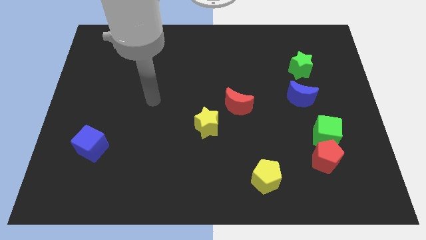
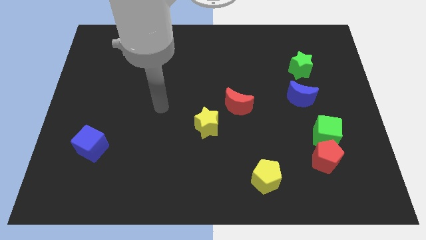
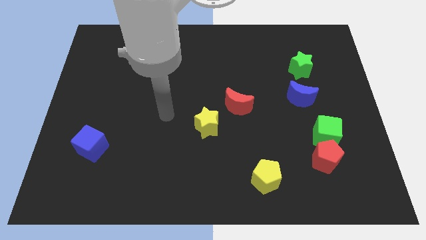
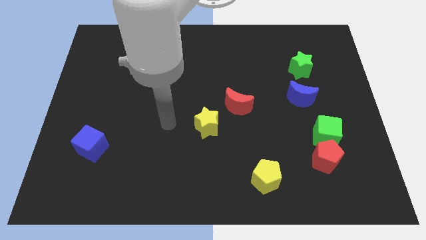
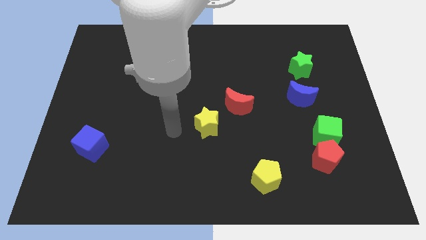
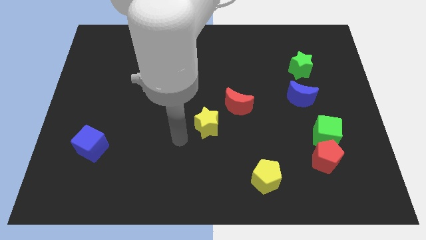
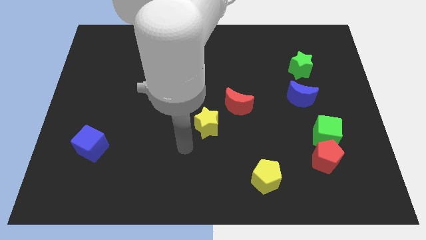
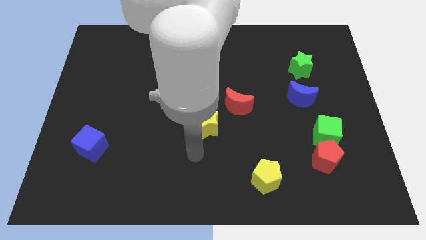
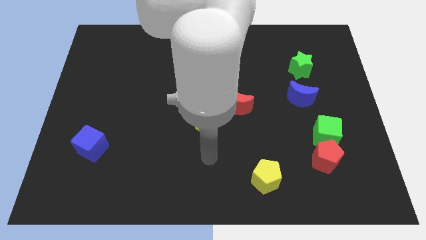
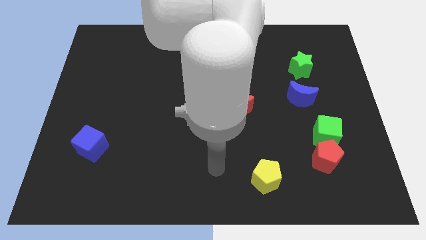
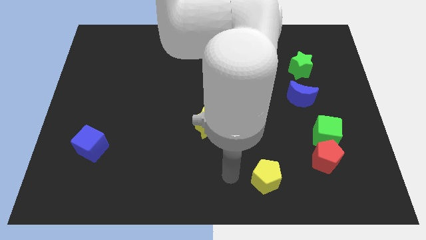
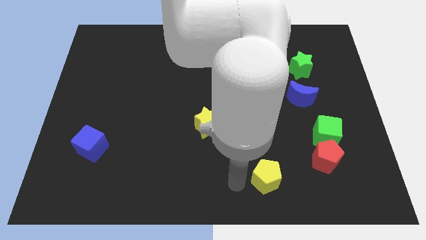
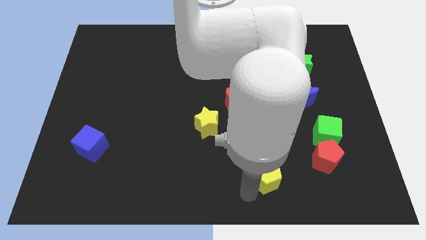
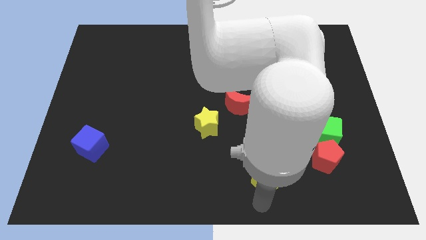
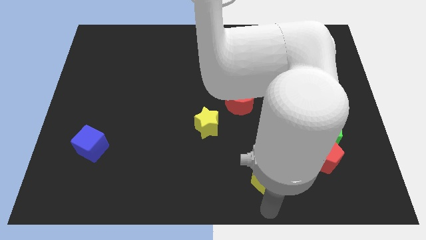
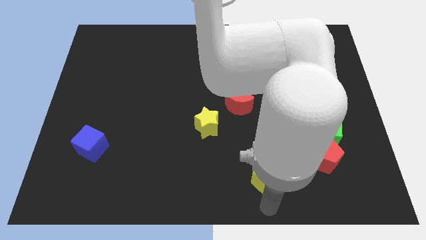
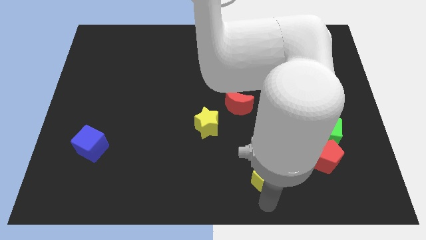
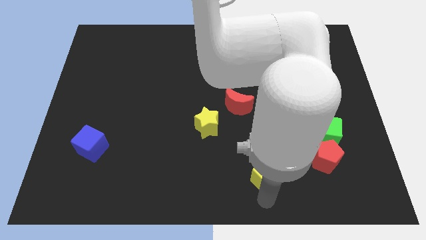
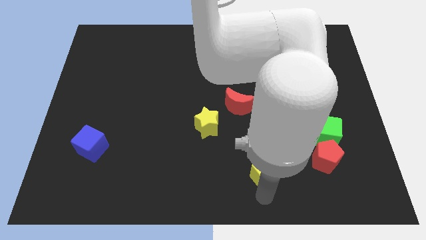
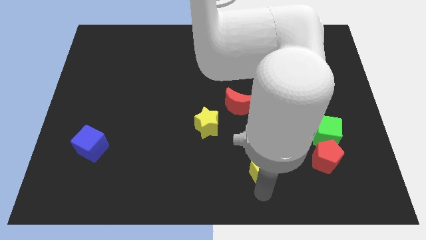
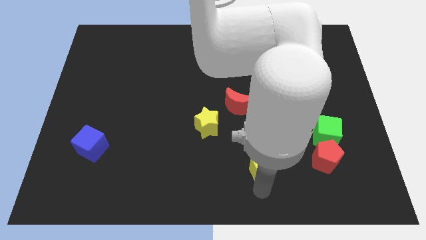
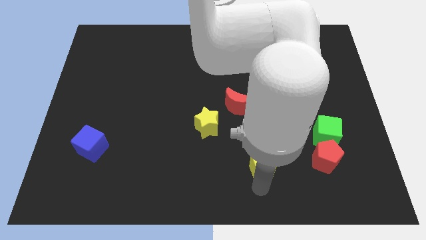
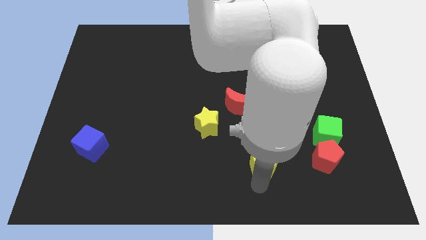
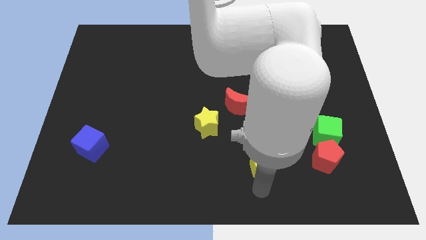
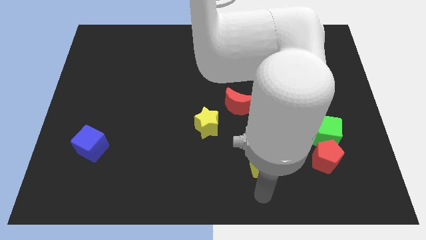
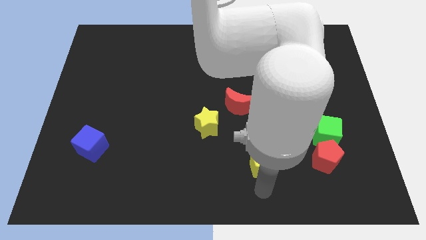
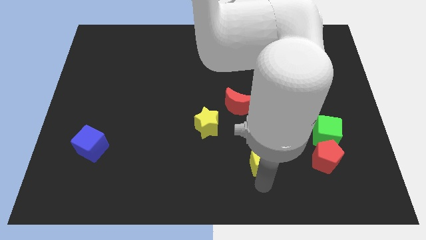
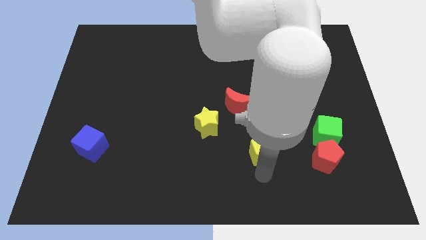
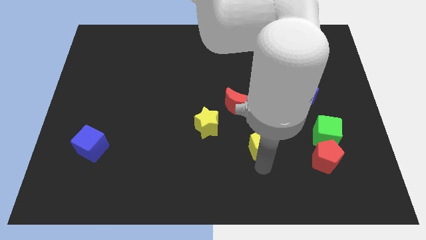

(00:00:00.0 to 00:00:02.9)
push the yellow pentagon upwards a bit

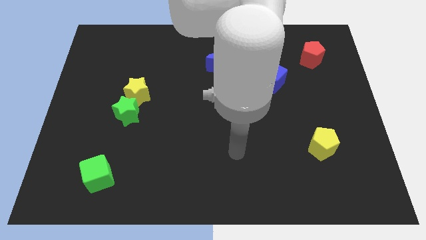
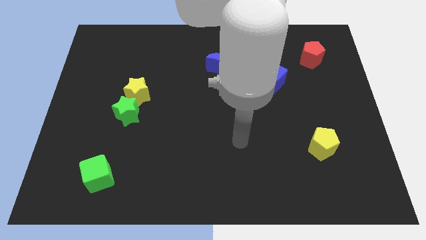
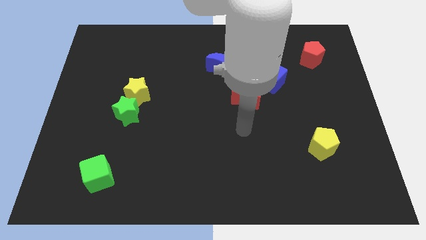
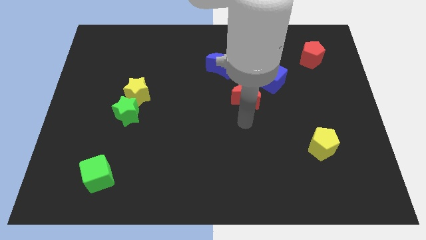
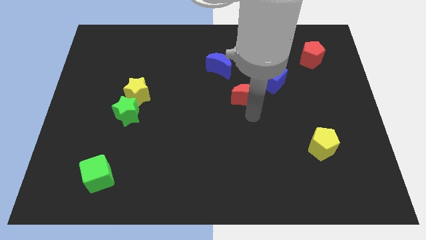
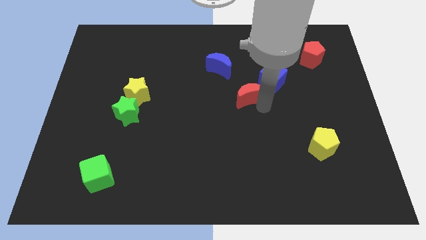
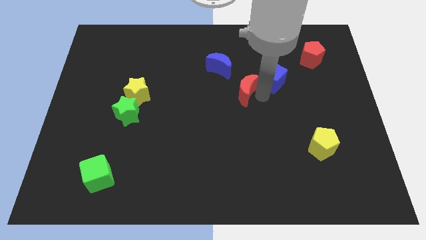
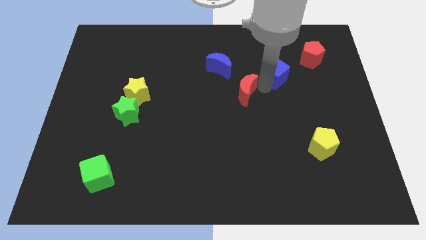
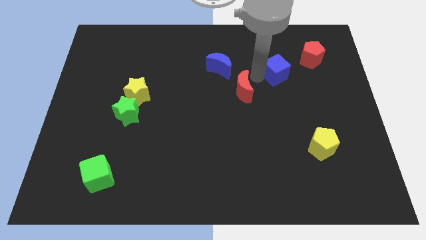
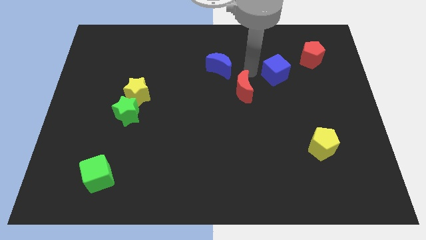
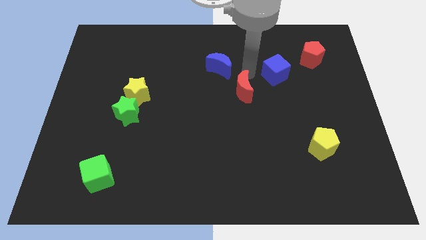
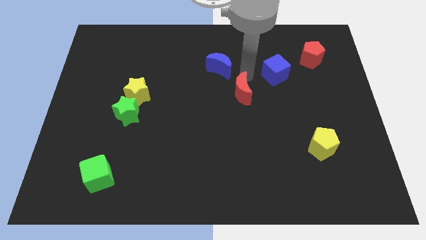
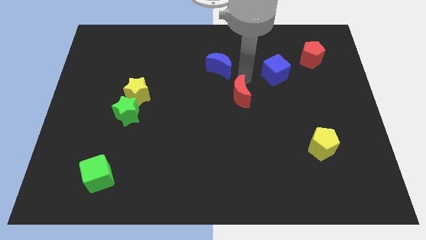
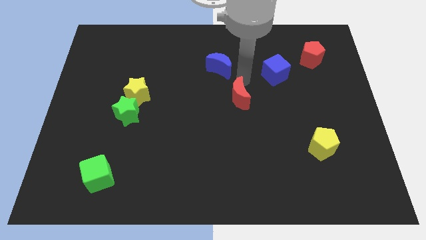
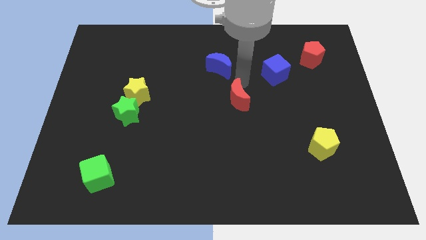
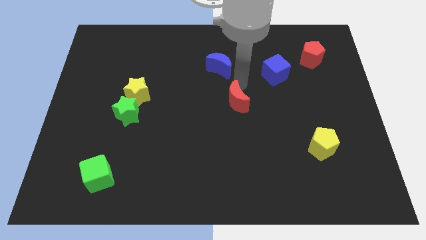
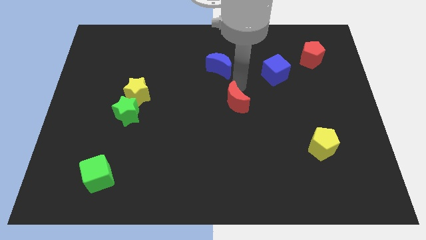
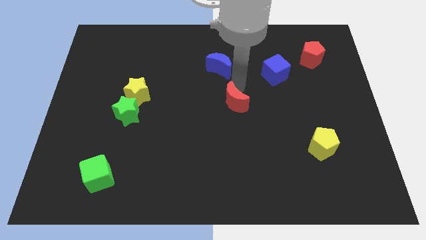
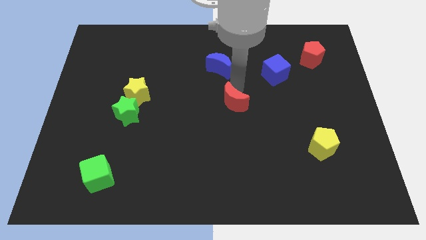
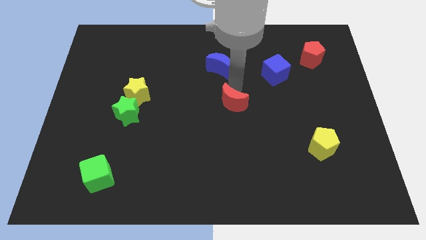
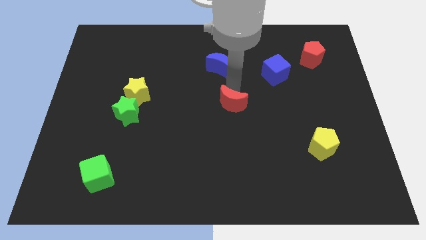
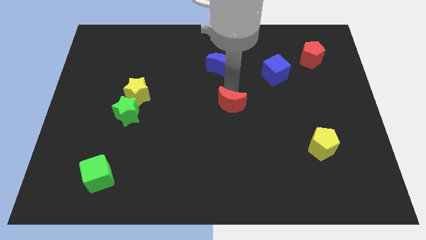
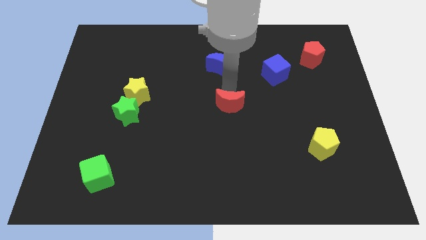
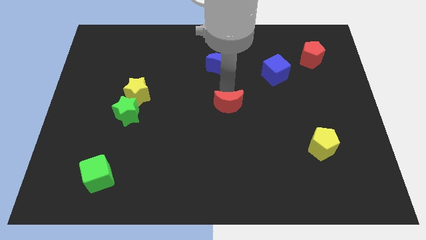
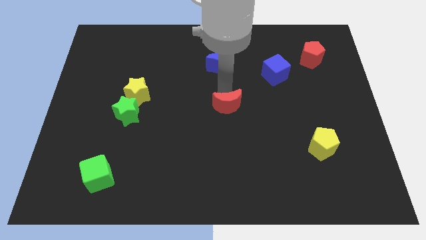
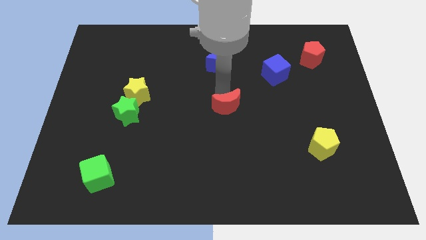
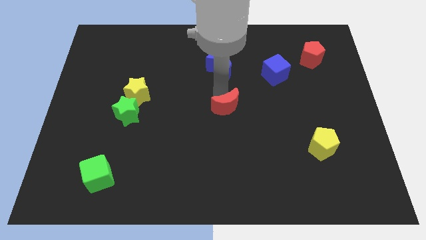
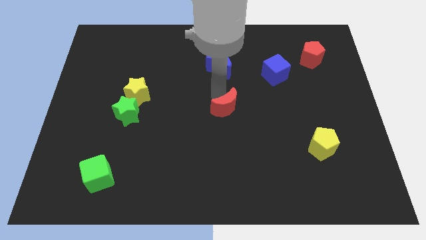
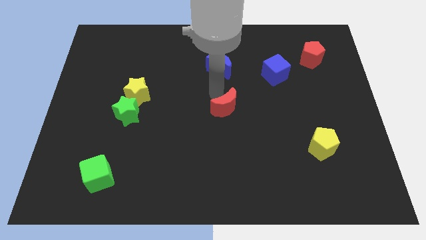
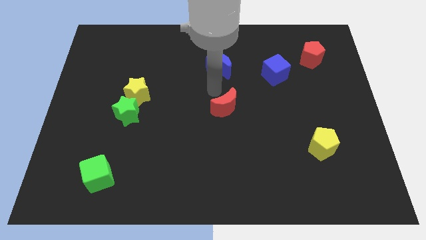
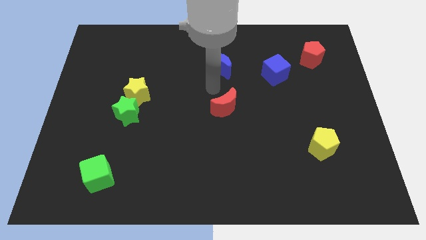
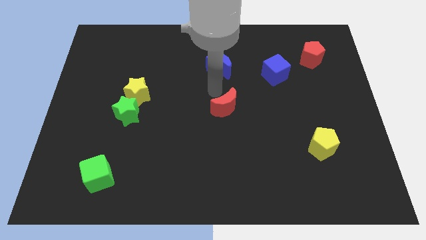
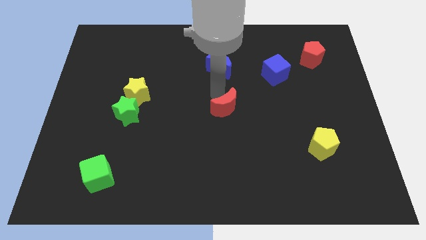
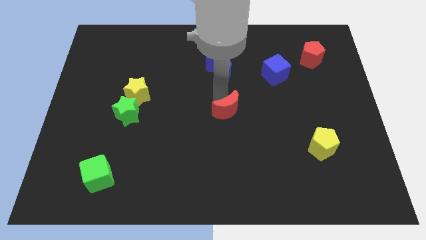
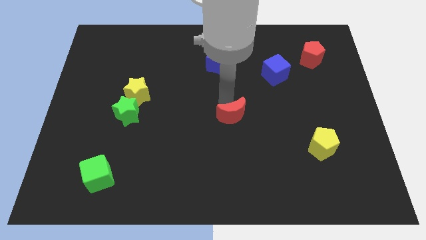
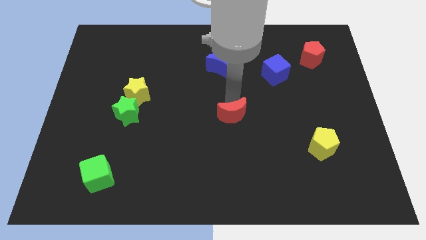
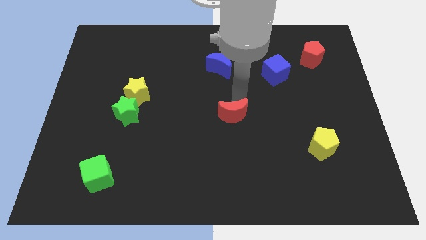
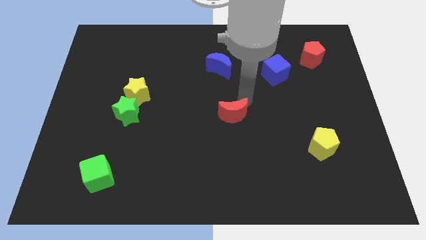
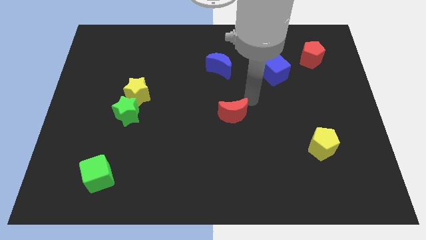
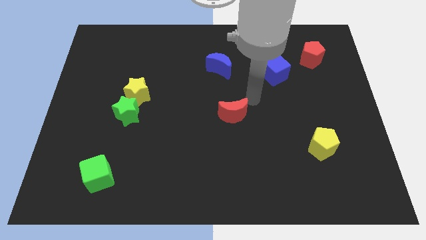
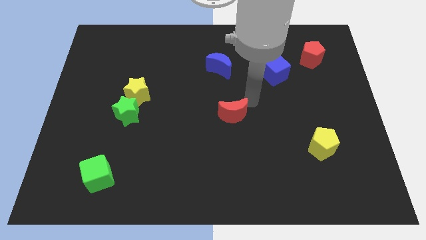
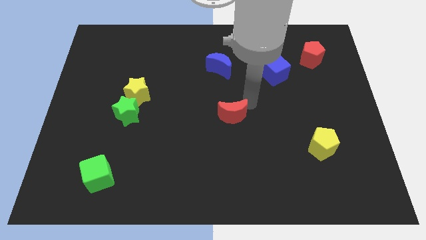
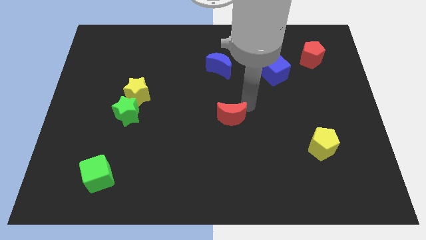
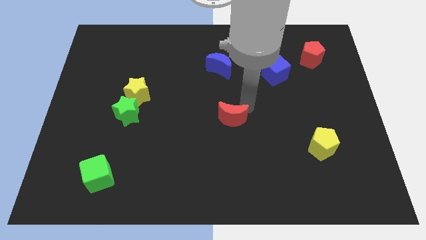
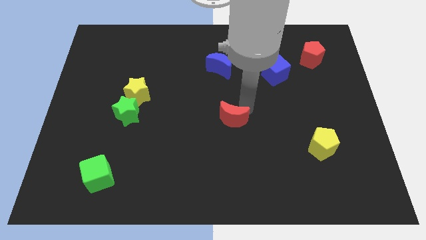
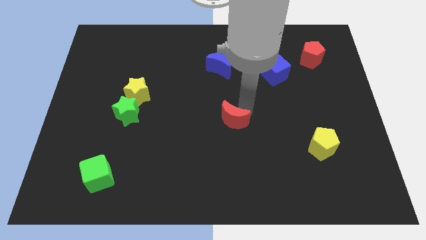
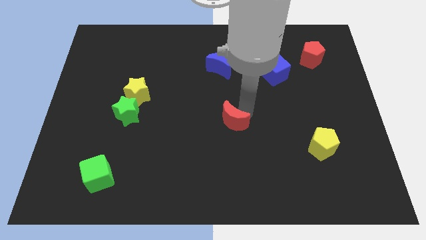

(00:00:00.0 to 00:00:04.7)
move the red moon down and left a little

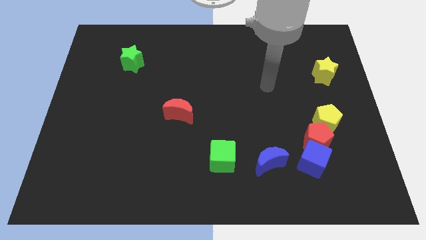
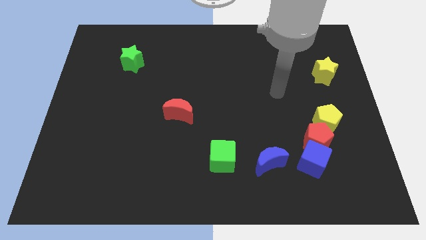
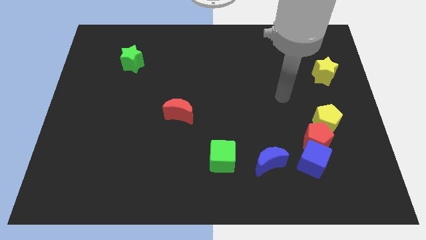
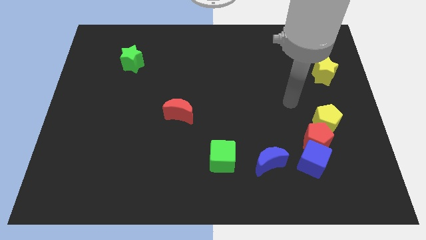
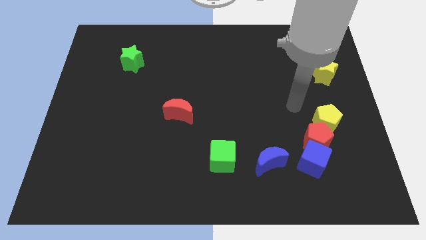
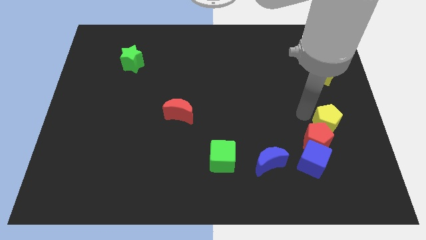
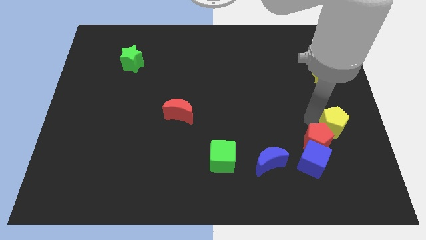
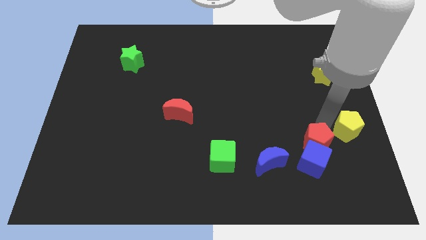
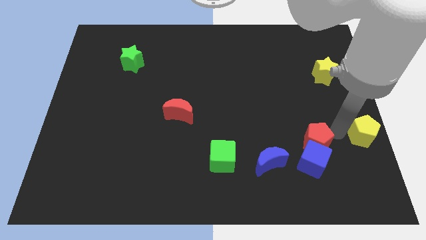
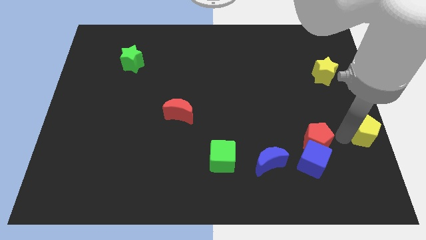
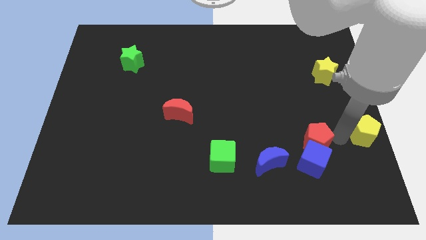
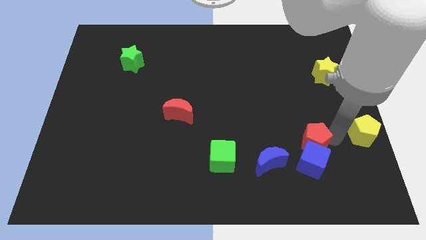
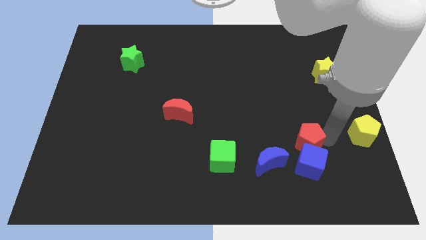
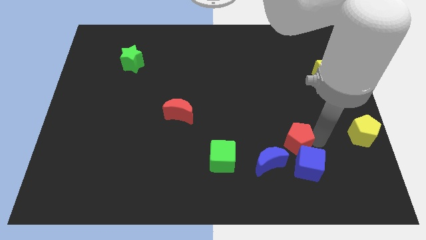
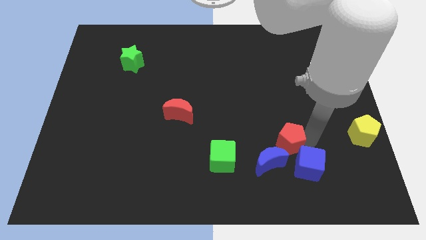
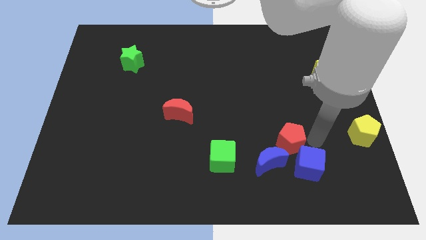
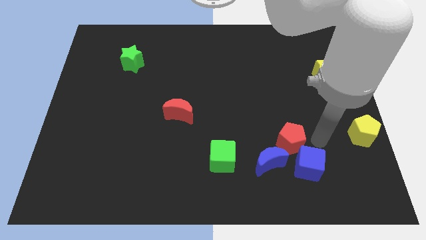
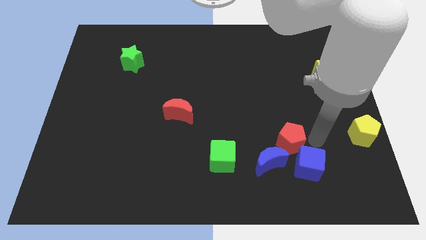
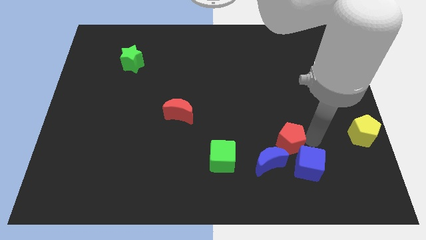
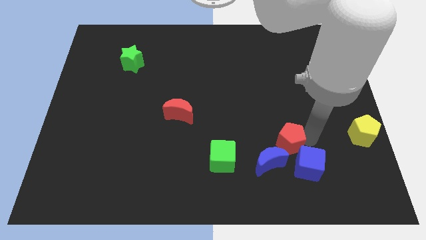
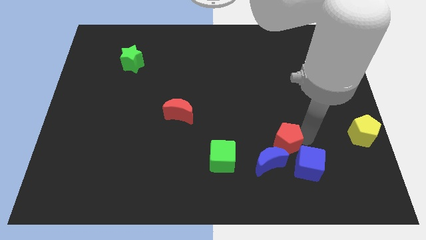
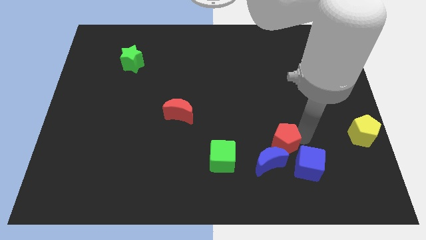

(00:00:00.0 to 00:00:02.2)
push the red pentagon left a bit
